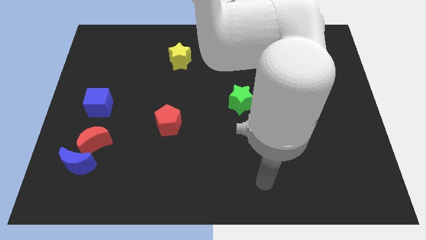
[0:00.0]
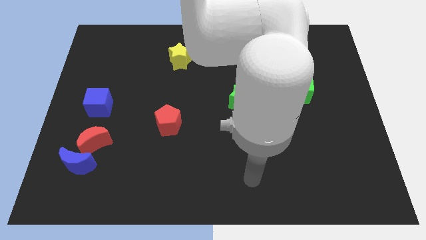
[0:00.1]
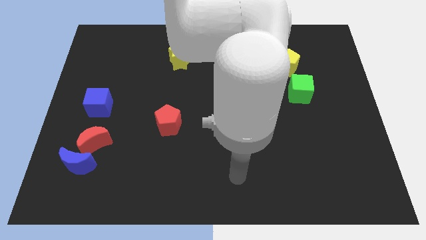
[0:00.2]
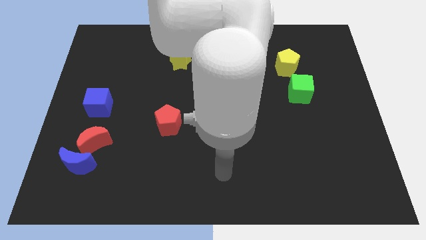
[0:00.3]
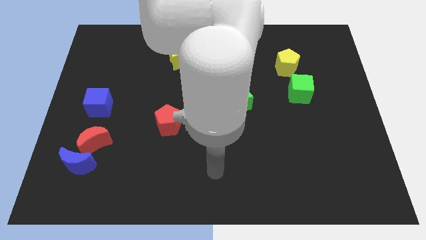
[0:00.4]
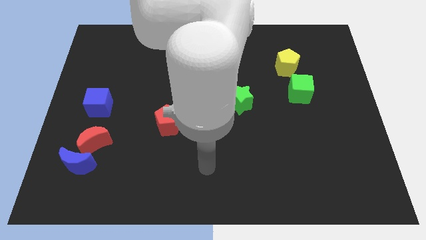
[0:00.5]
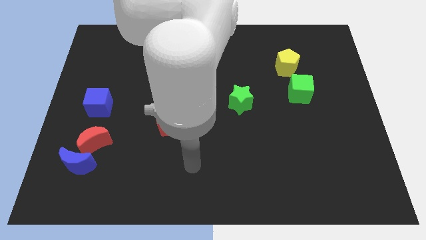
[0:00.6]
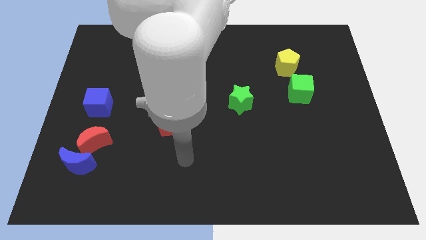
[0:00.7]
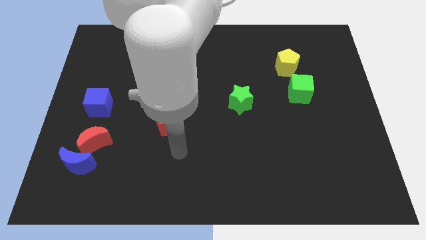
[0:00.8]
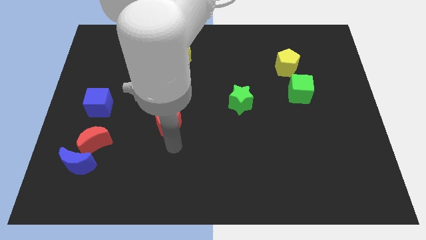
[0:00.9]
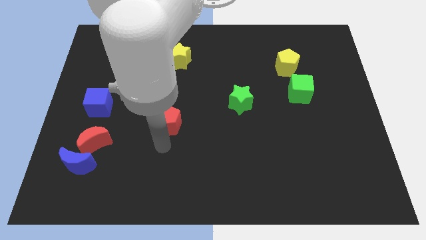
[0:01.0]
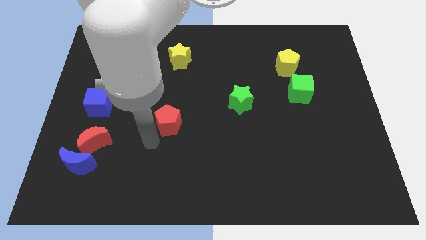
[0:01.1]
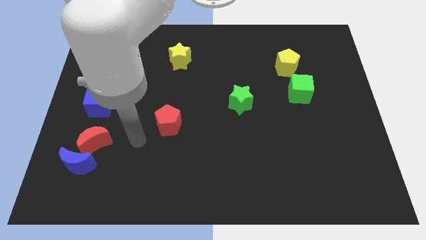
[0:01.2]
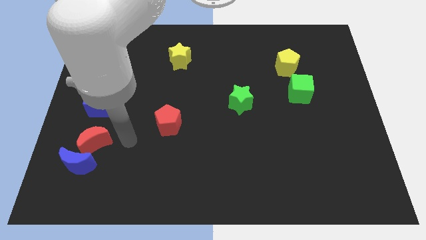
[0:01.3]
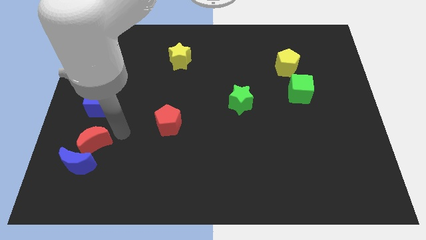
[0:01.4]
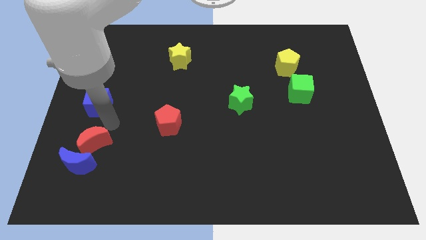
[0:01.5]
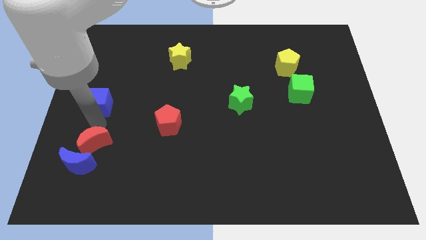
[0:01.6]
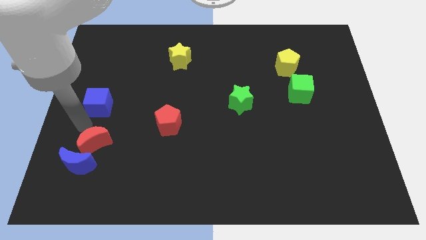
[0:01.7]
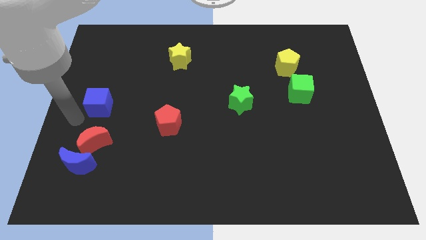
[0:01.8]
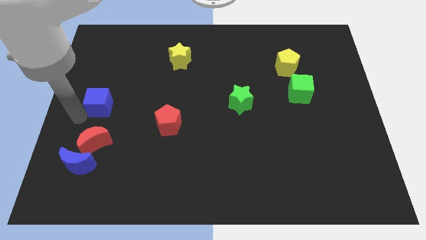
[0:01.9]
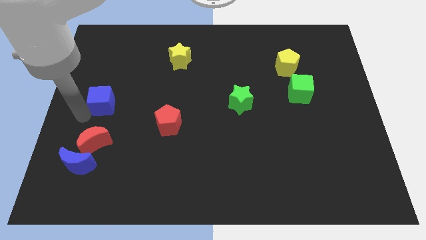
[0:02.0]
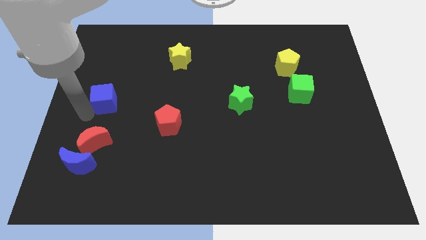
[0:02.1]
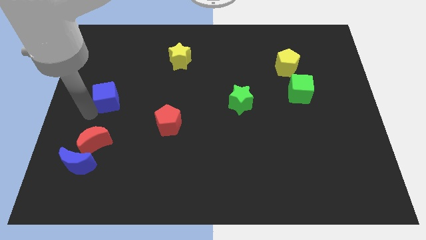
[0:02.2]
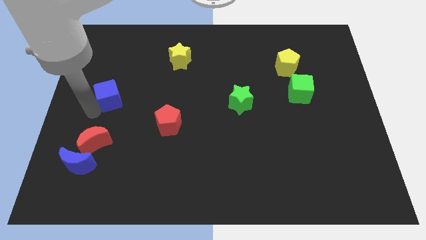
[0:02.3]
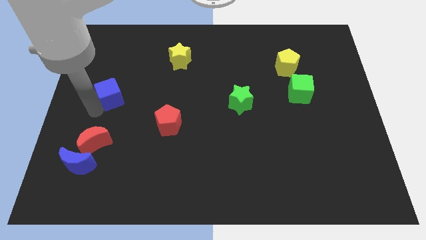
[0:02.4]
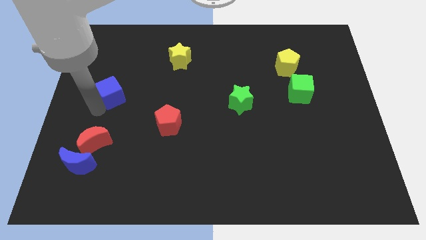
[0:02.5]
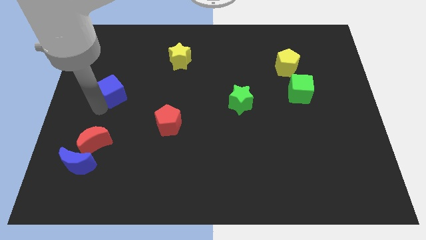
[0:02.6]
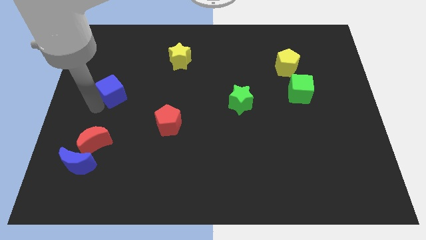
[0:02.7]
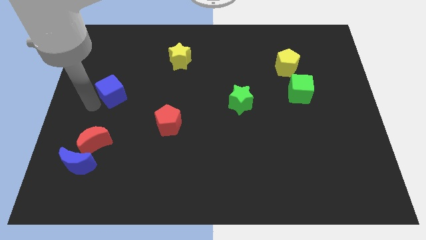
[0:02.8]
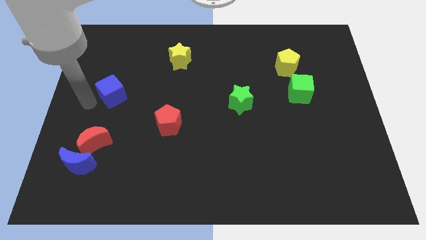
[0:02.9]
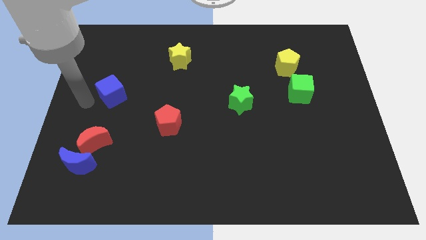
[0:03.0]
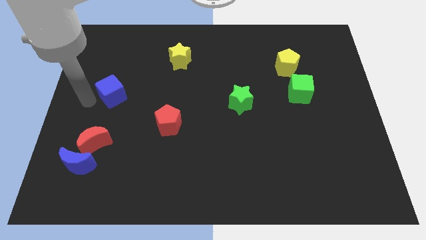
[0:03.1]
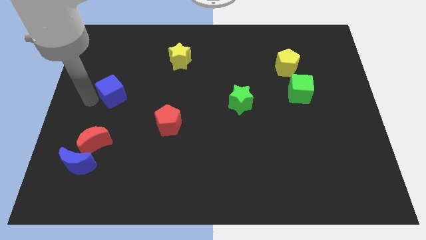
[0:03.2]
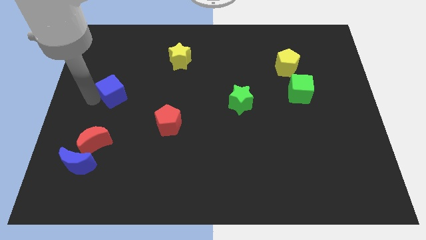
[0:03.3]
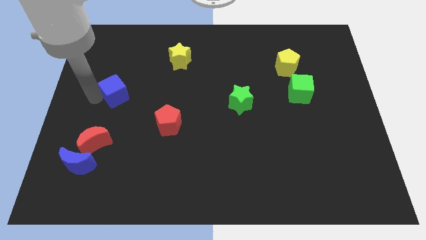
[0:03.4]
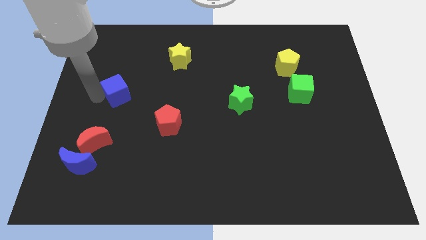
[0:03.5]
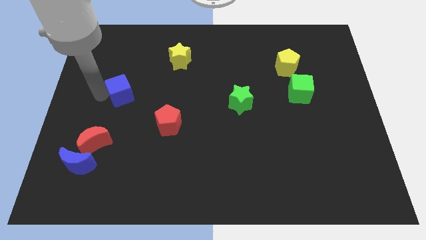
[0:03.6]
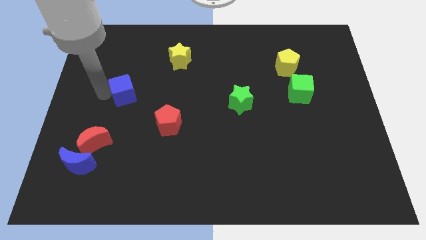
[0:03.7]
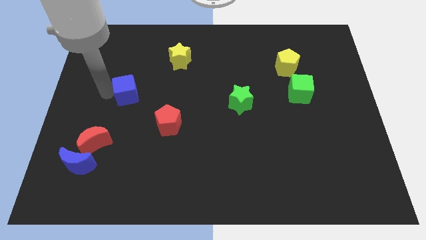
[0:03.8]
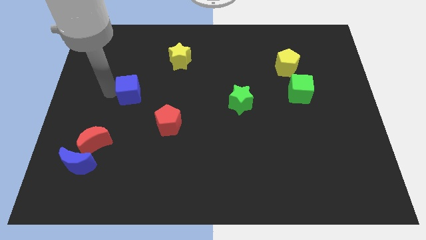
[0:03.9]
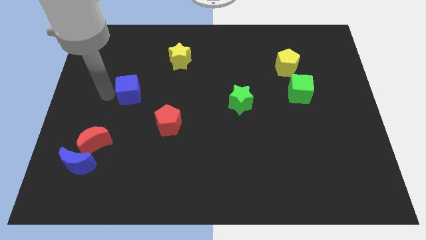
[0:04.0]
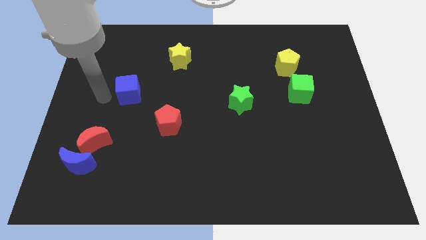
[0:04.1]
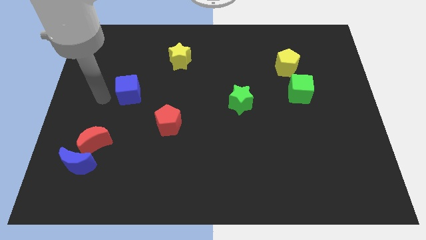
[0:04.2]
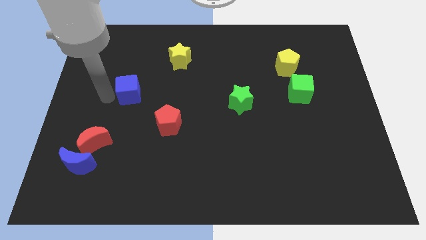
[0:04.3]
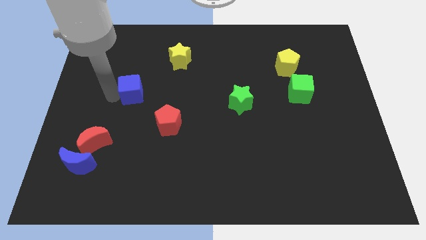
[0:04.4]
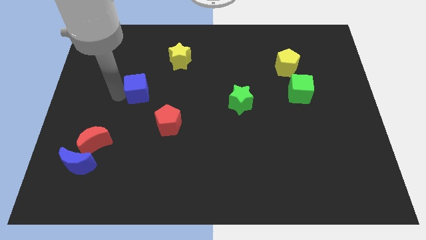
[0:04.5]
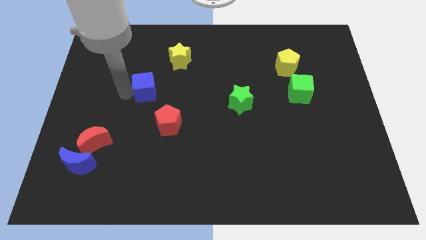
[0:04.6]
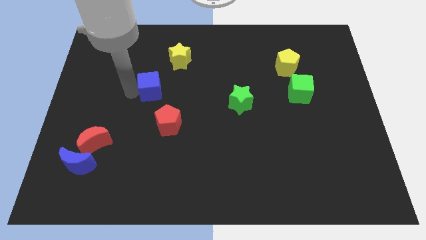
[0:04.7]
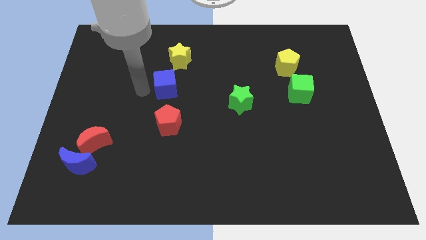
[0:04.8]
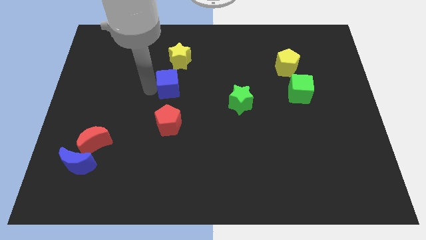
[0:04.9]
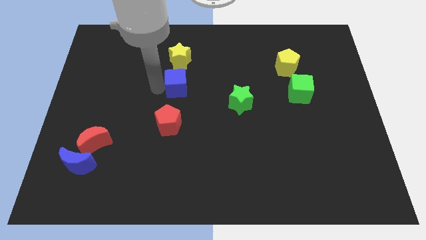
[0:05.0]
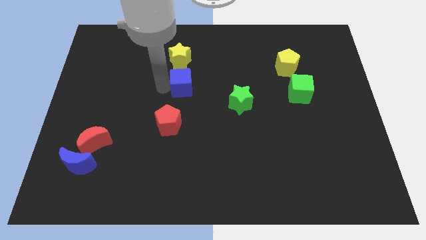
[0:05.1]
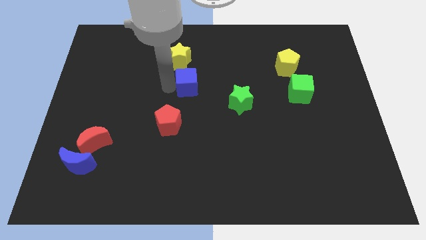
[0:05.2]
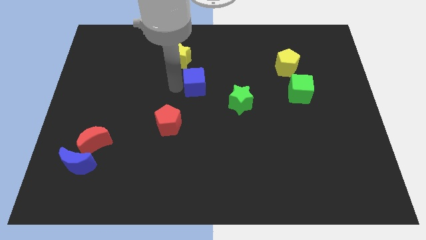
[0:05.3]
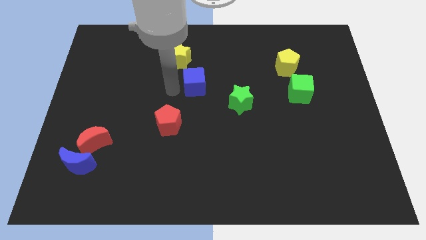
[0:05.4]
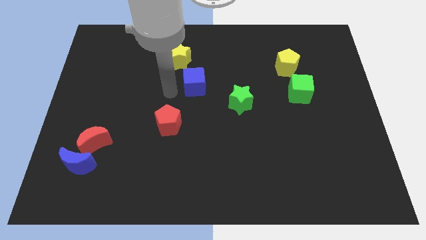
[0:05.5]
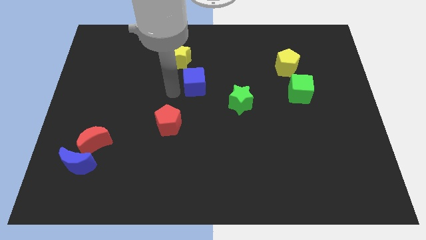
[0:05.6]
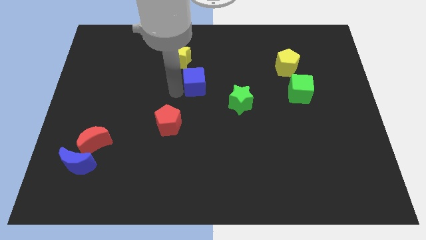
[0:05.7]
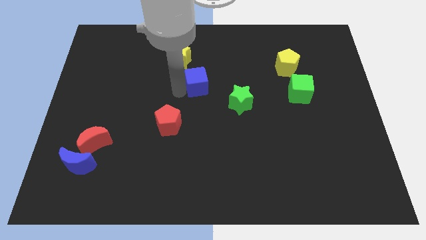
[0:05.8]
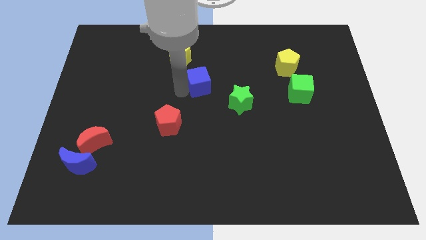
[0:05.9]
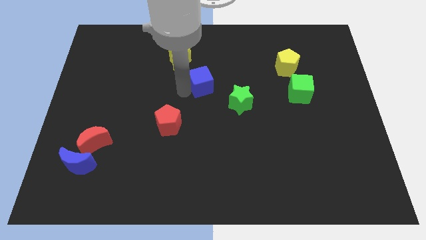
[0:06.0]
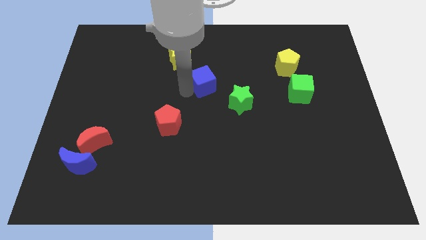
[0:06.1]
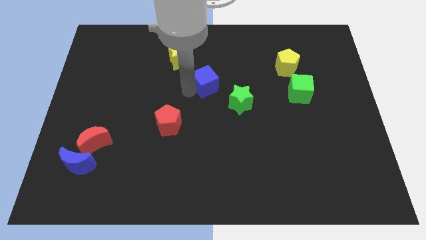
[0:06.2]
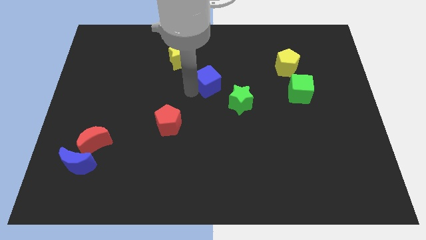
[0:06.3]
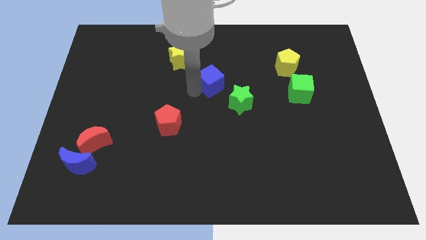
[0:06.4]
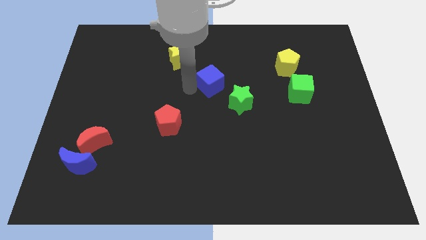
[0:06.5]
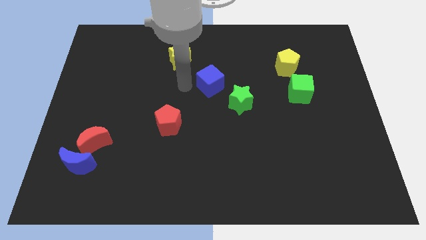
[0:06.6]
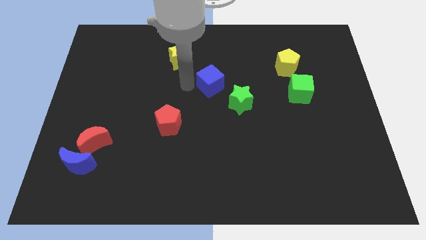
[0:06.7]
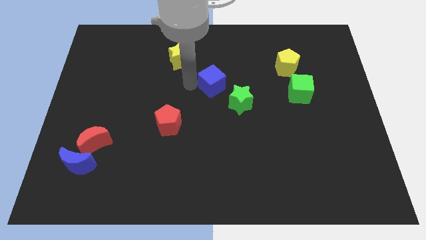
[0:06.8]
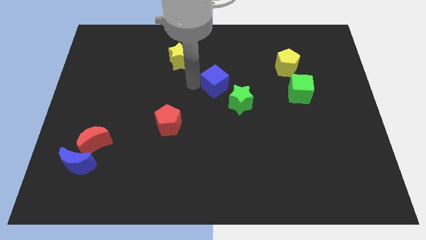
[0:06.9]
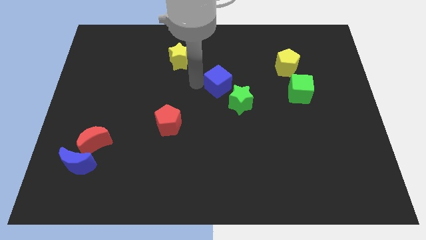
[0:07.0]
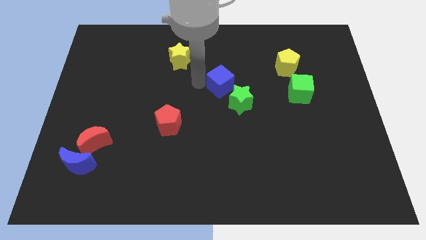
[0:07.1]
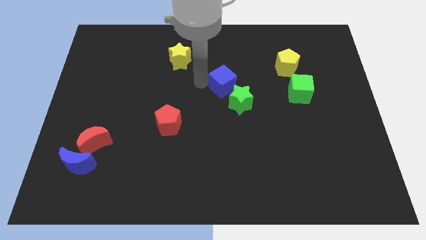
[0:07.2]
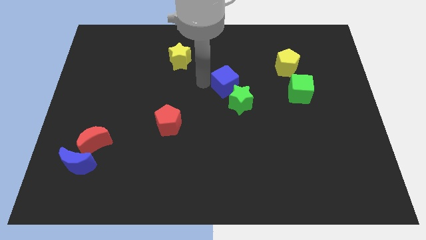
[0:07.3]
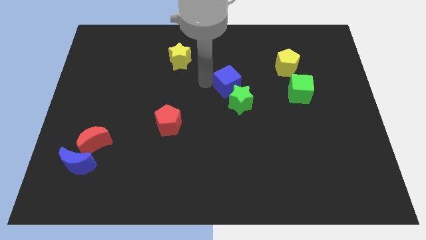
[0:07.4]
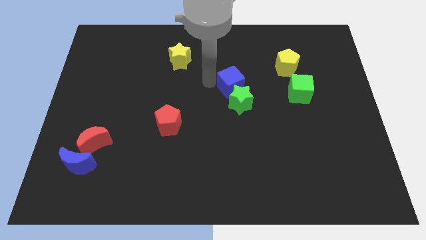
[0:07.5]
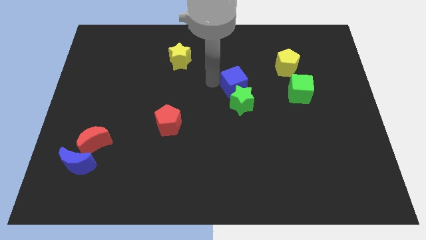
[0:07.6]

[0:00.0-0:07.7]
slide the blue cube to the top right side of the green star

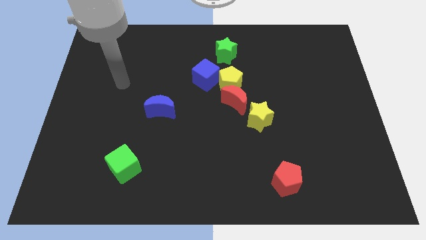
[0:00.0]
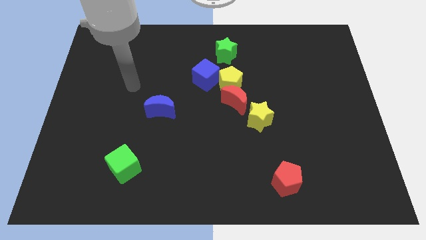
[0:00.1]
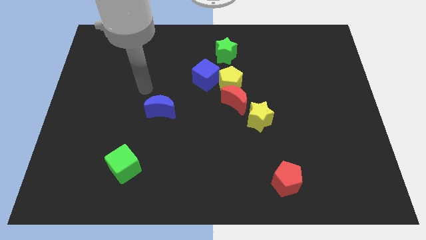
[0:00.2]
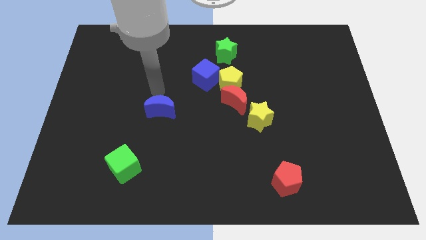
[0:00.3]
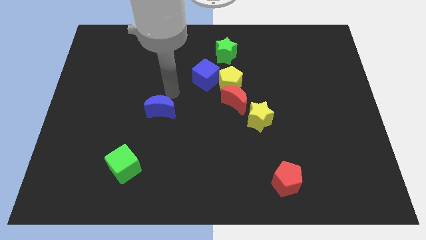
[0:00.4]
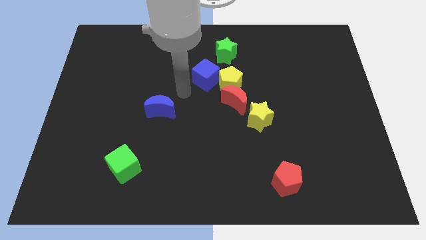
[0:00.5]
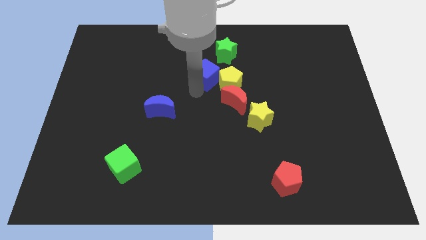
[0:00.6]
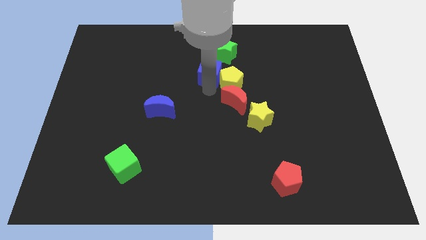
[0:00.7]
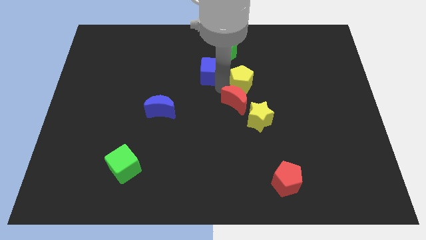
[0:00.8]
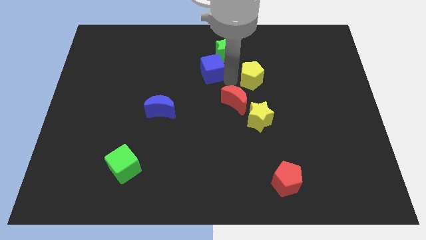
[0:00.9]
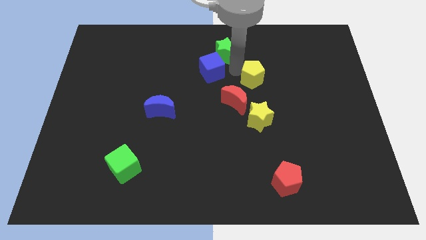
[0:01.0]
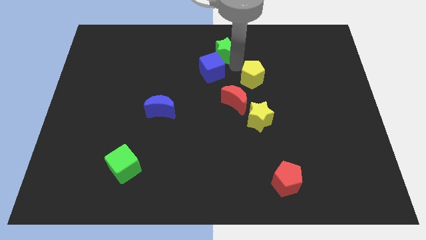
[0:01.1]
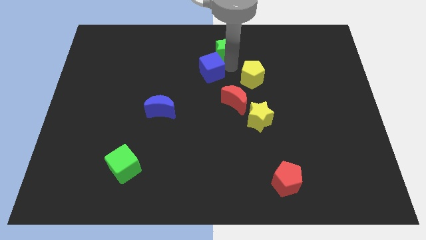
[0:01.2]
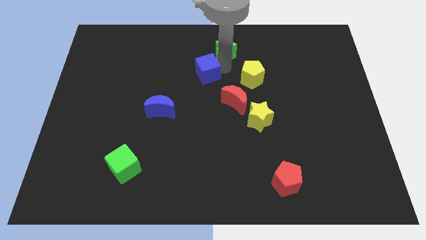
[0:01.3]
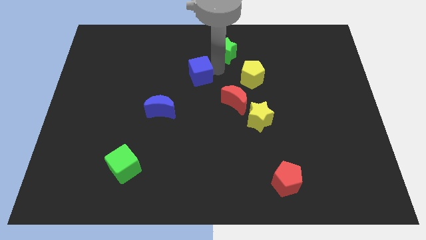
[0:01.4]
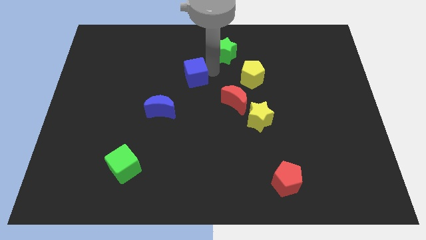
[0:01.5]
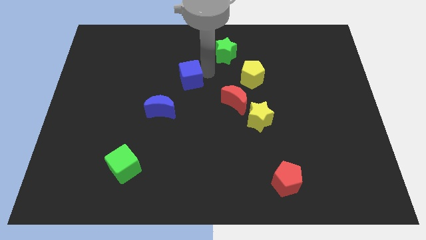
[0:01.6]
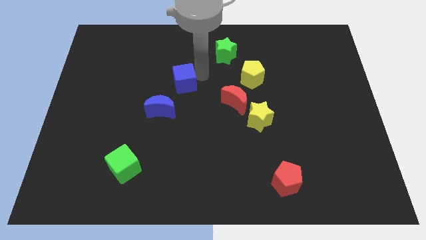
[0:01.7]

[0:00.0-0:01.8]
put the blue cube to the top of the blue moon
